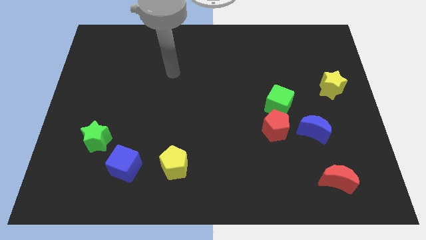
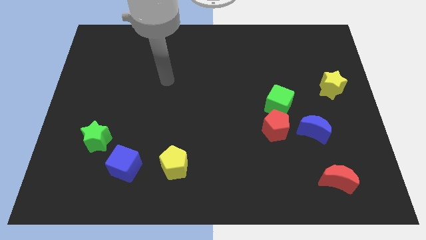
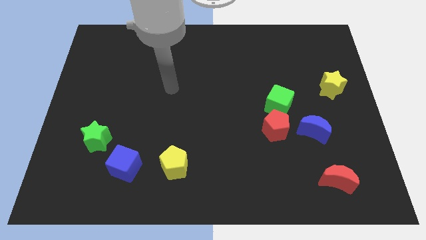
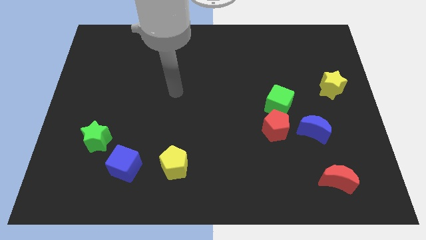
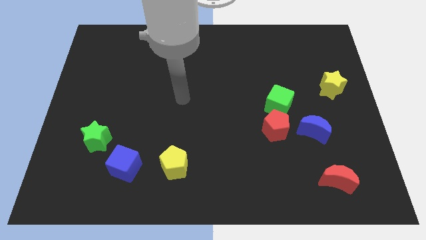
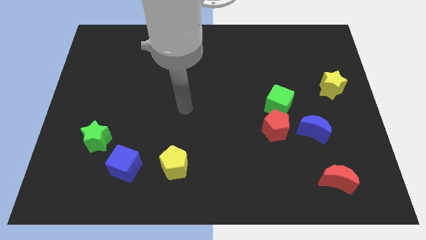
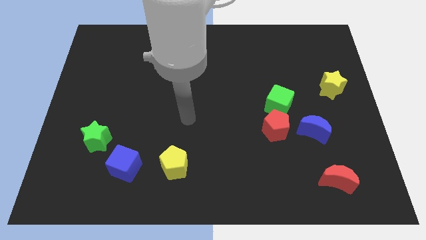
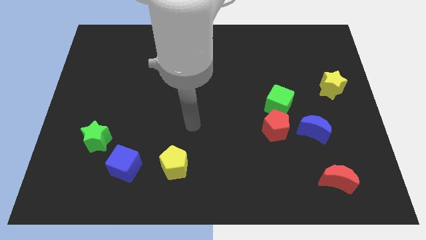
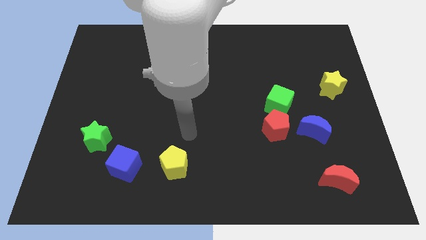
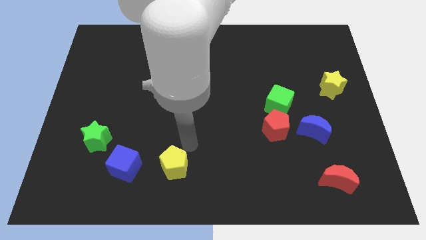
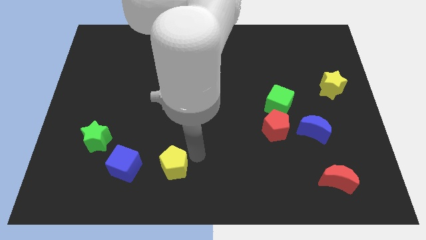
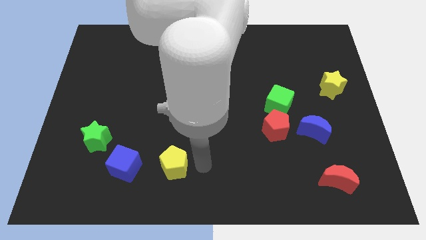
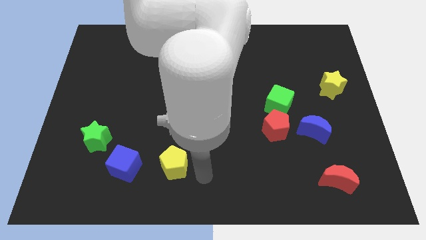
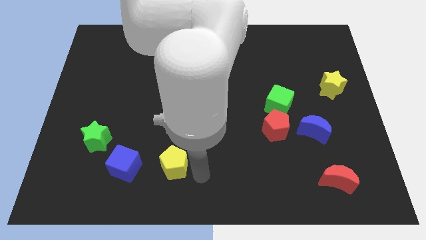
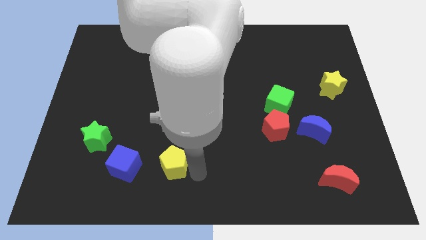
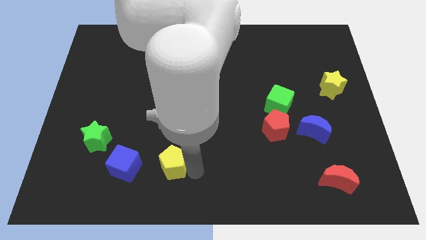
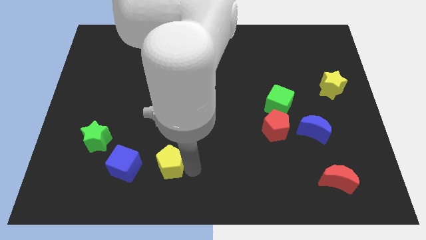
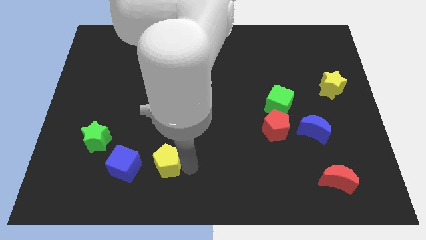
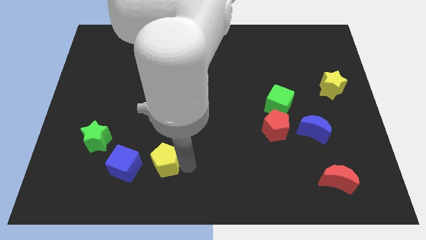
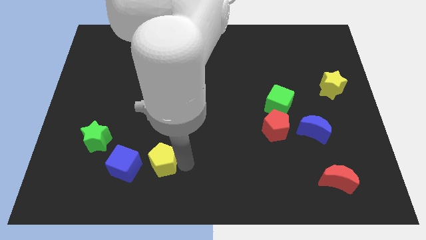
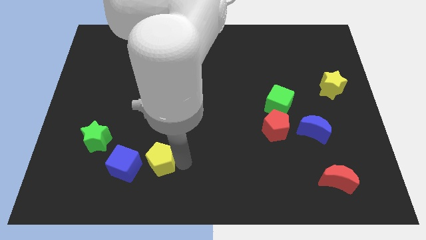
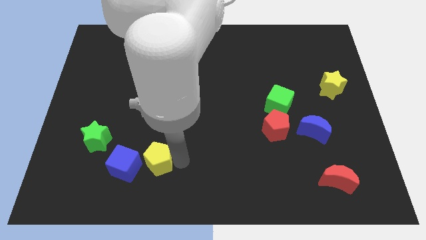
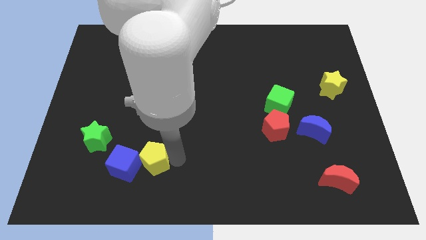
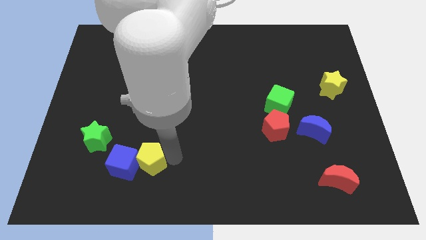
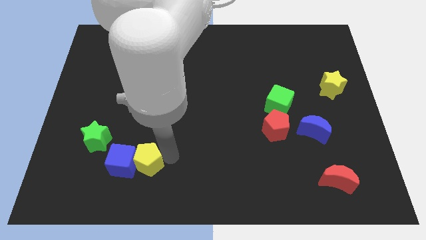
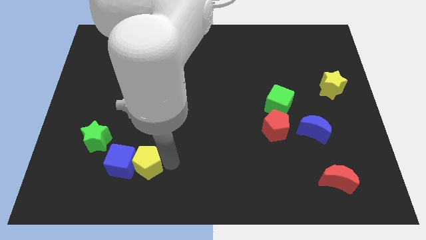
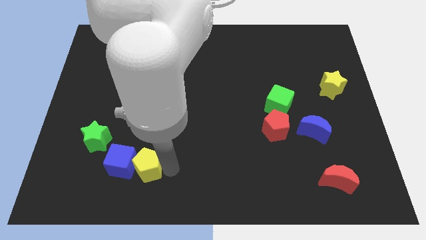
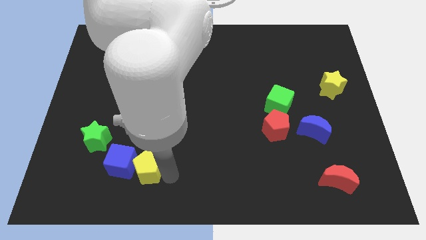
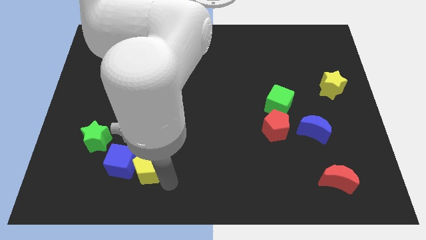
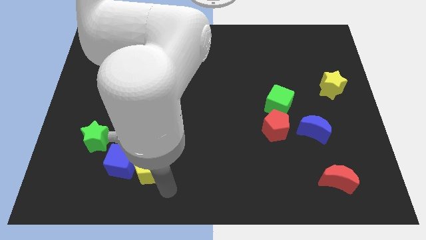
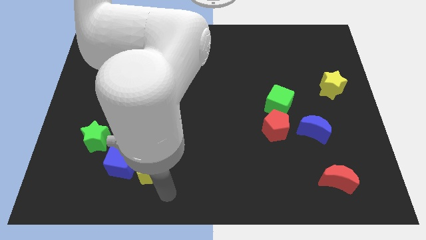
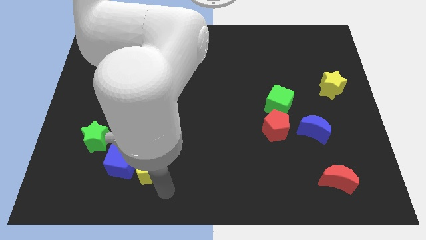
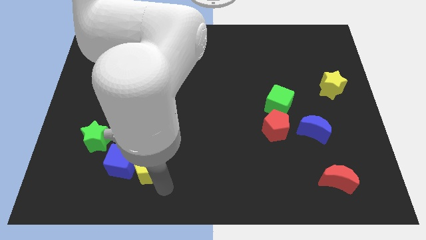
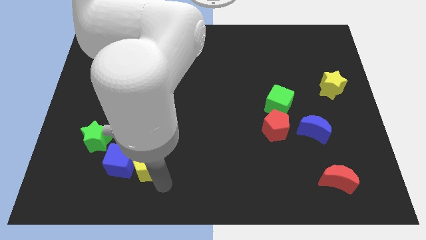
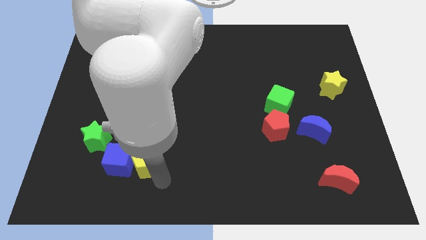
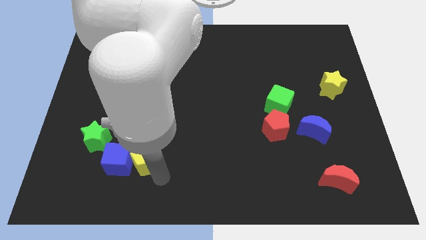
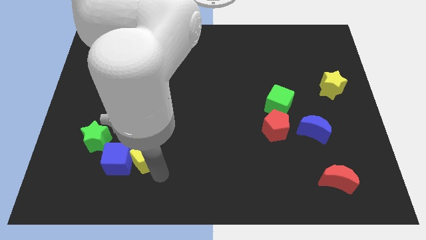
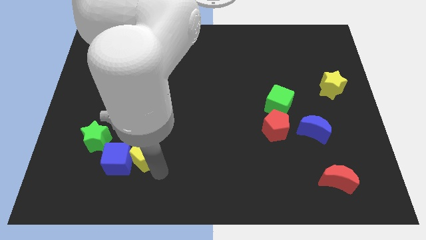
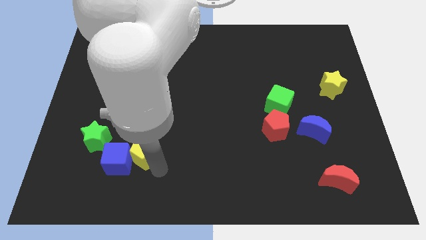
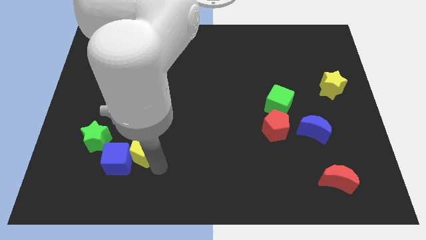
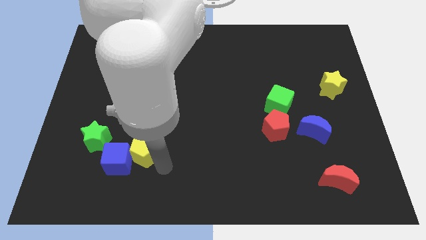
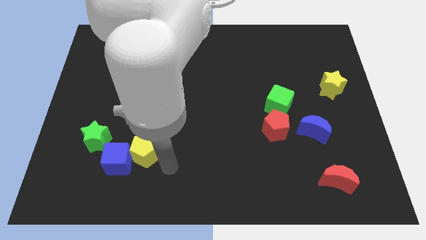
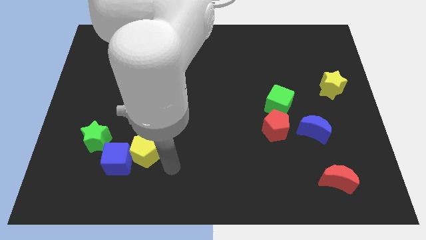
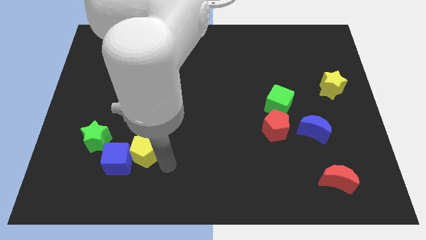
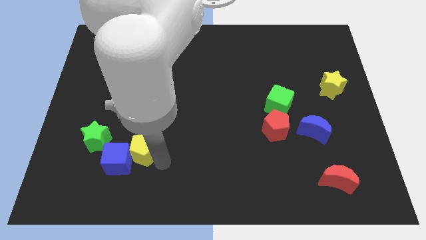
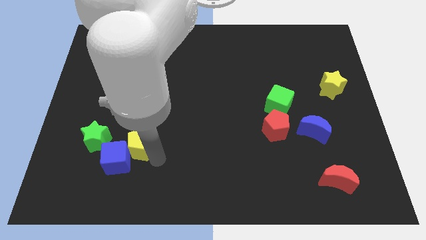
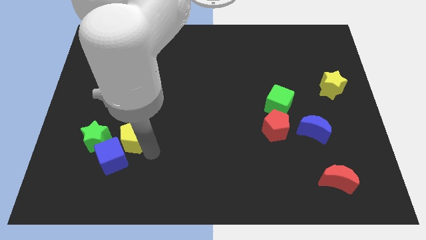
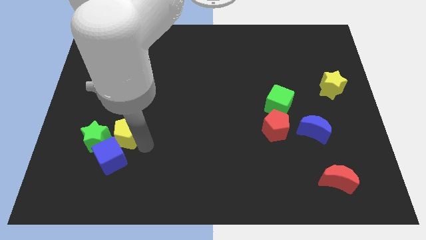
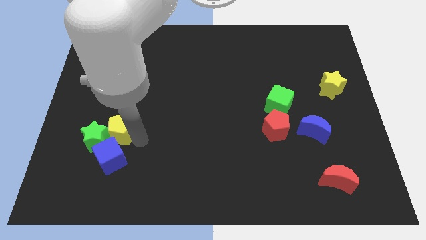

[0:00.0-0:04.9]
put the yellow pentagon to the green star

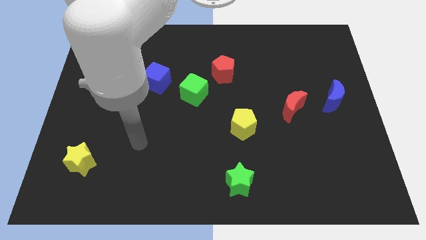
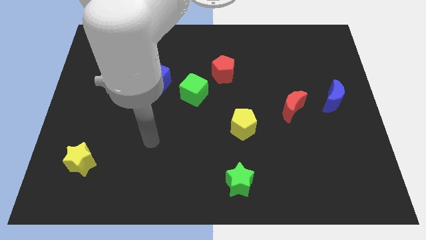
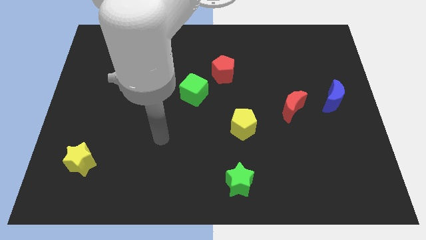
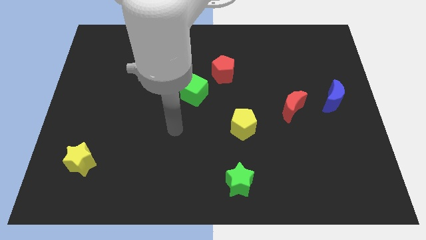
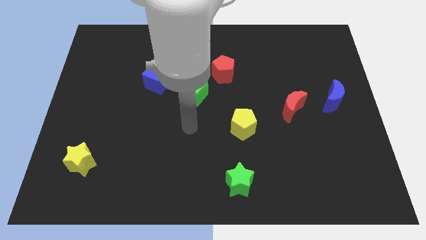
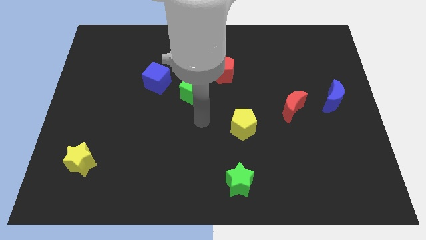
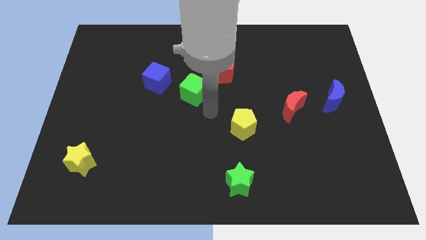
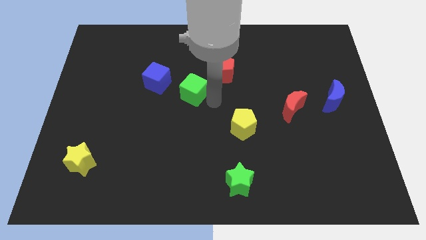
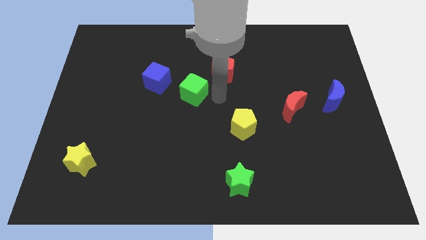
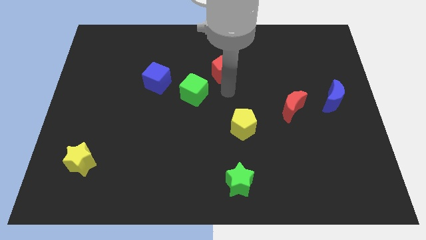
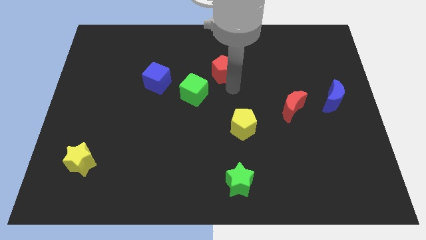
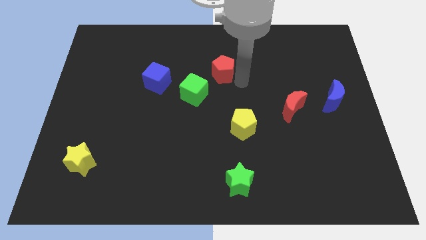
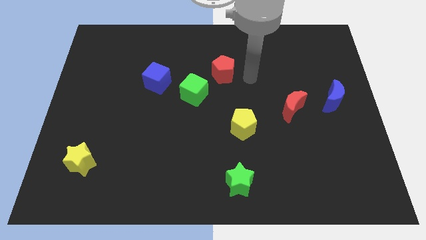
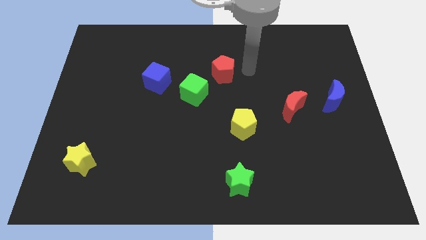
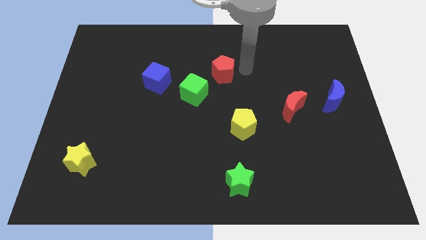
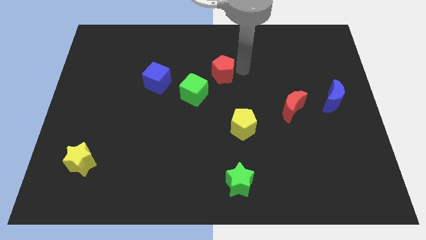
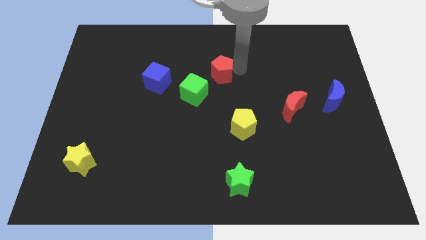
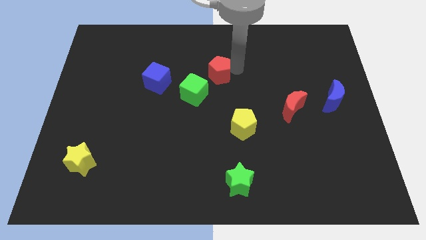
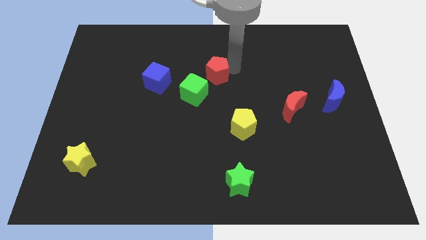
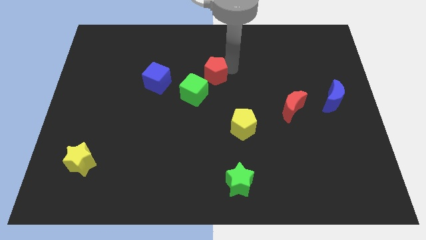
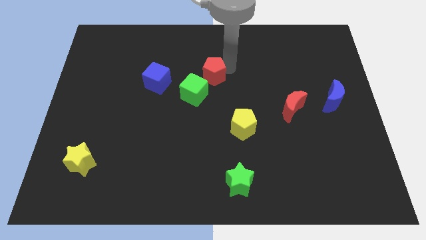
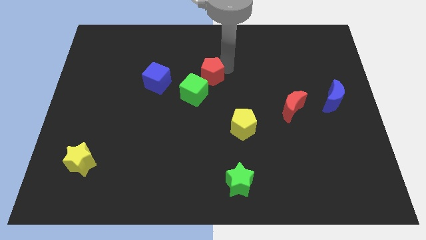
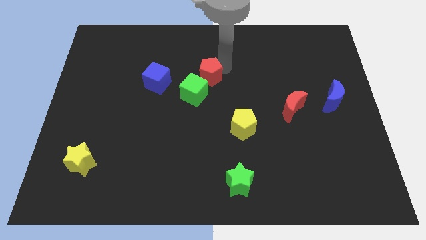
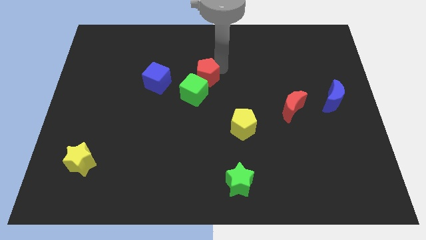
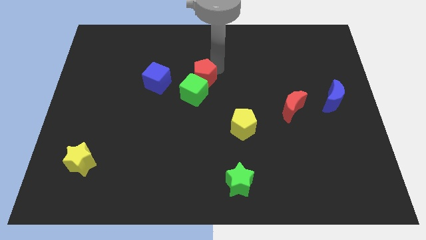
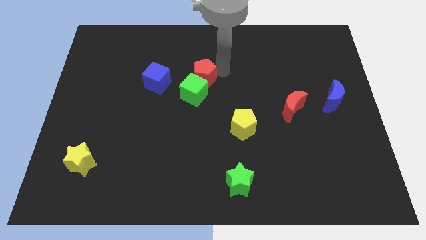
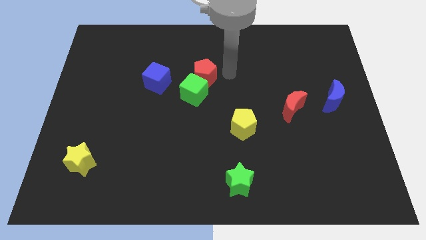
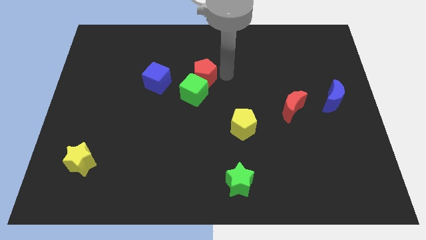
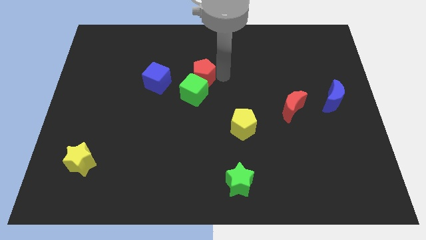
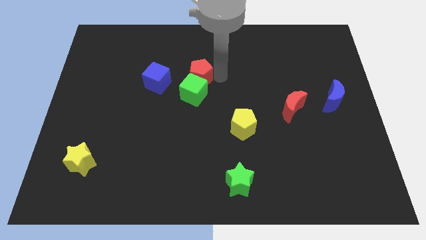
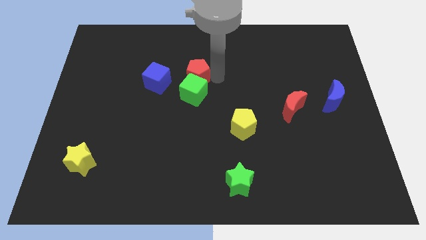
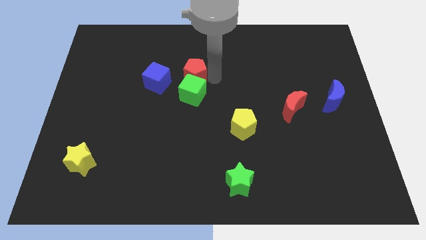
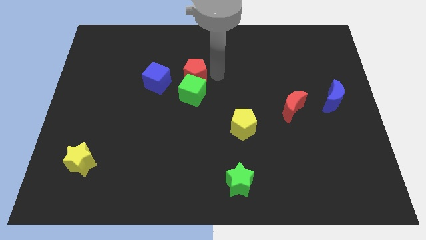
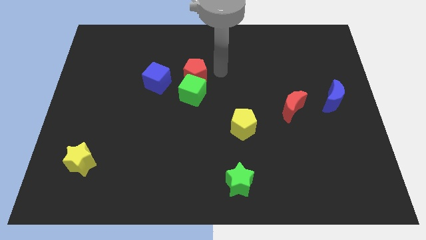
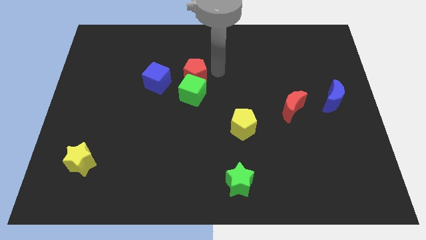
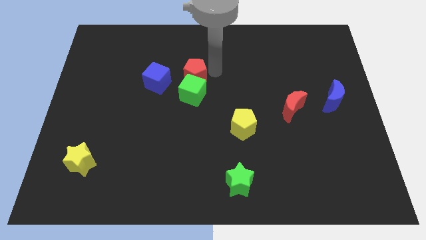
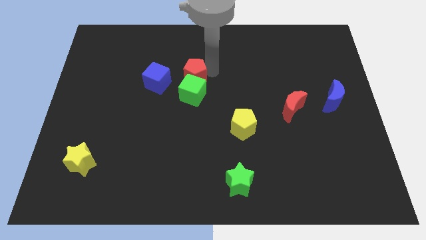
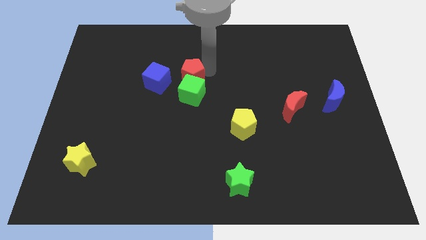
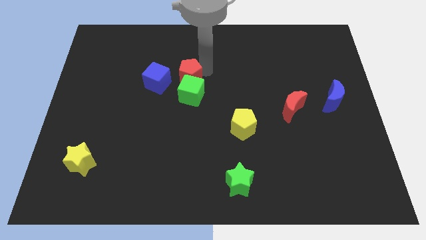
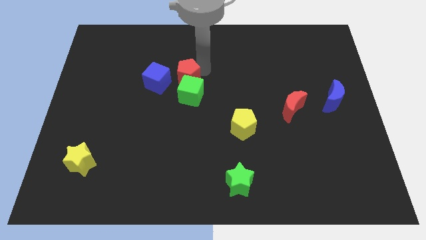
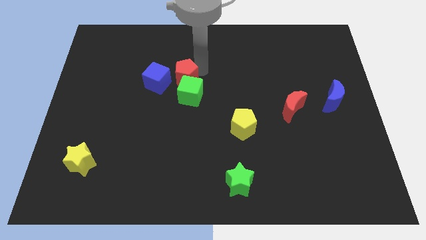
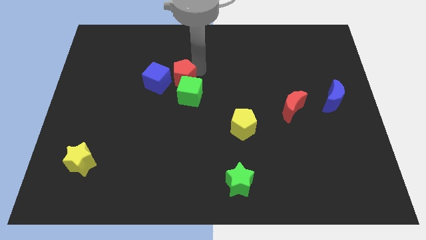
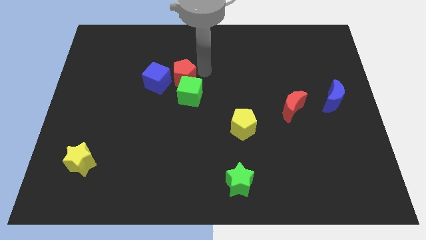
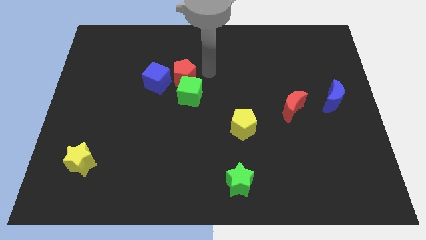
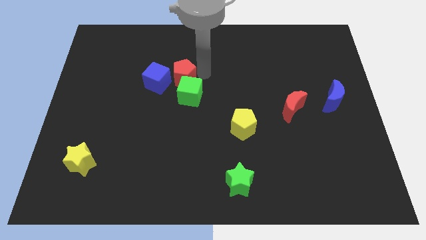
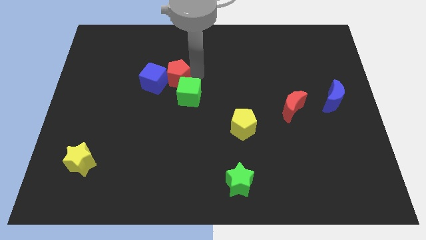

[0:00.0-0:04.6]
put the red pentagon close to the blue cube
